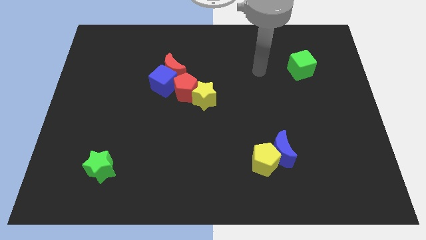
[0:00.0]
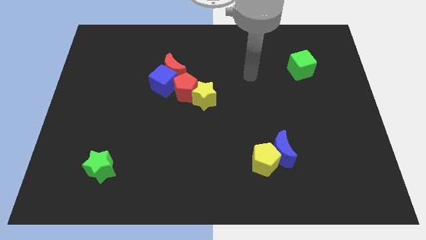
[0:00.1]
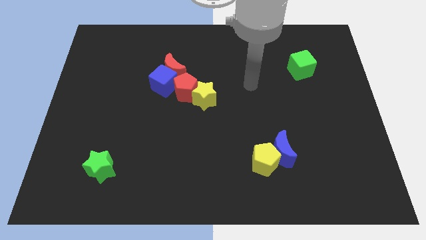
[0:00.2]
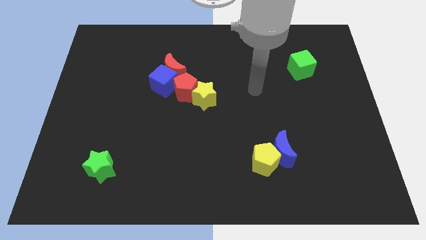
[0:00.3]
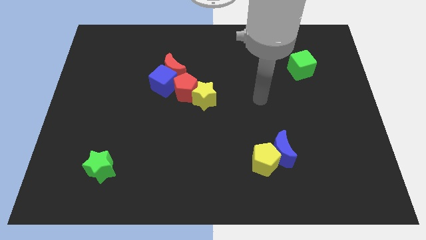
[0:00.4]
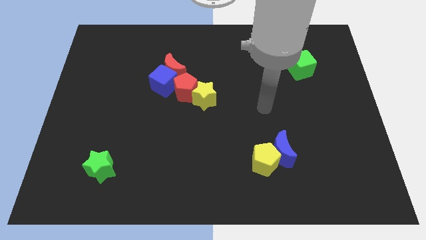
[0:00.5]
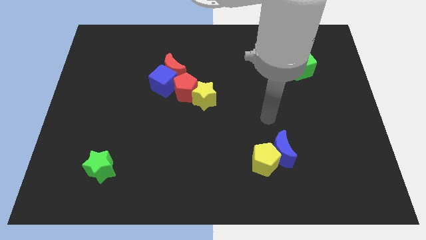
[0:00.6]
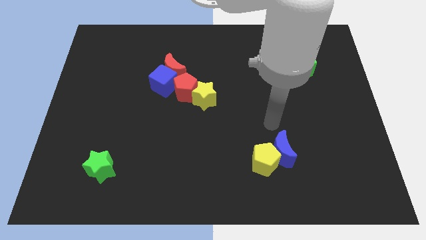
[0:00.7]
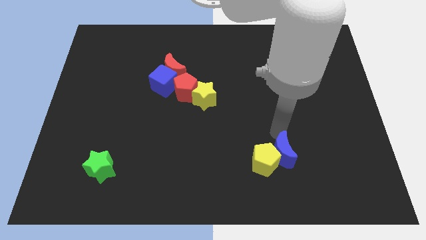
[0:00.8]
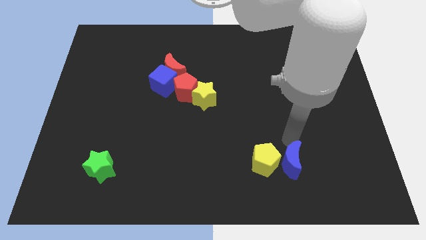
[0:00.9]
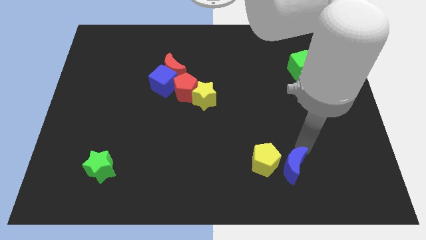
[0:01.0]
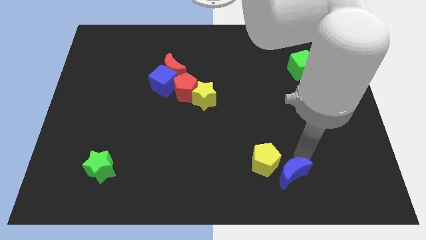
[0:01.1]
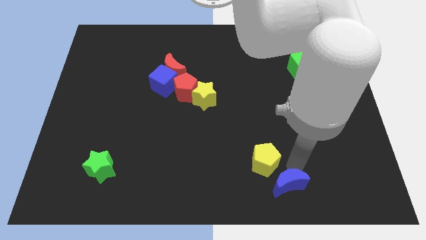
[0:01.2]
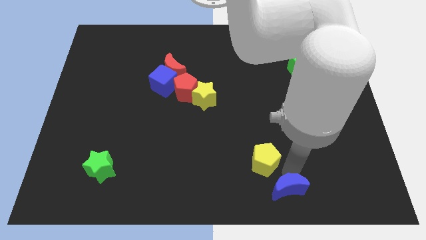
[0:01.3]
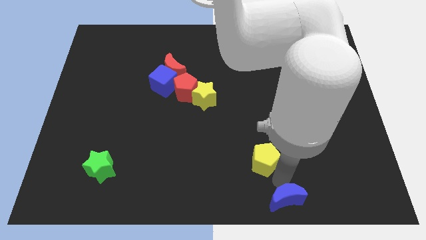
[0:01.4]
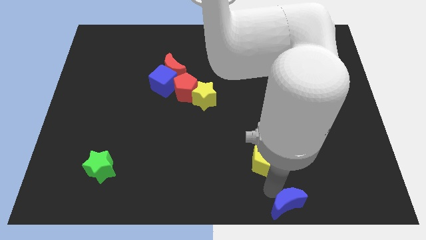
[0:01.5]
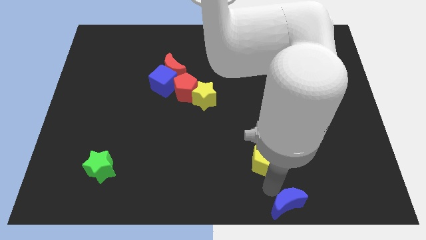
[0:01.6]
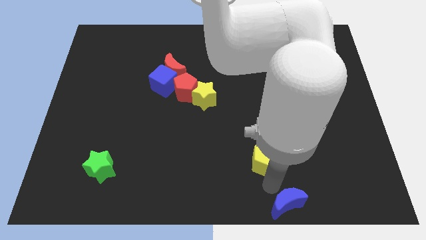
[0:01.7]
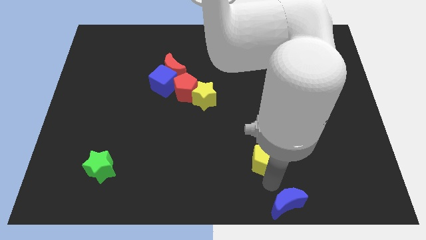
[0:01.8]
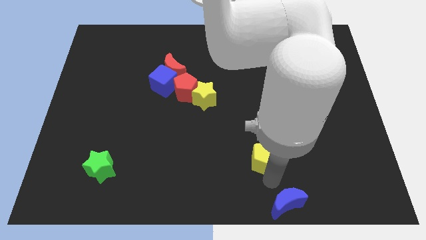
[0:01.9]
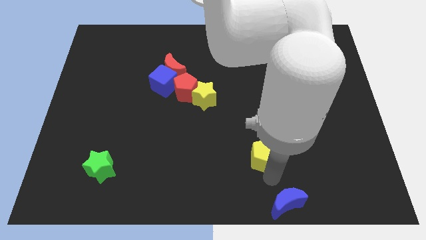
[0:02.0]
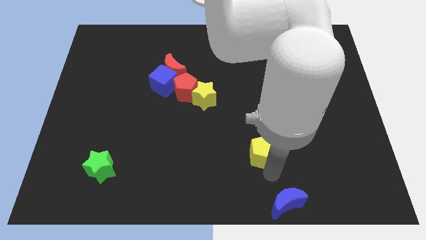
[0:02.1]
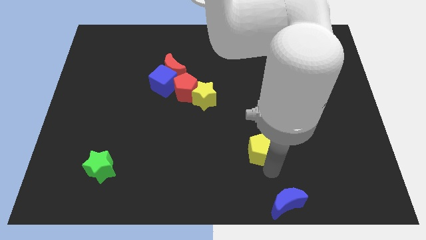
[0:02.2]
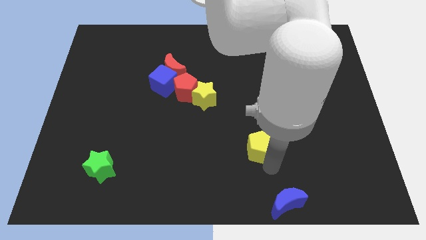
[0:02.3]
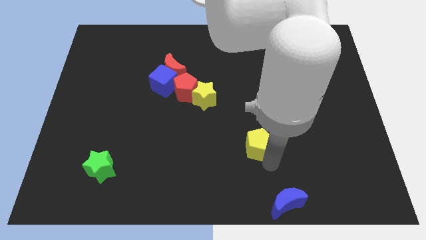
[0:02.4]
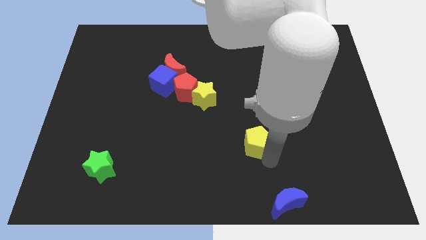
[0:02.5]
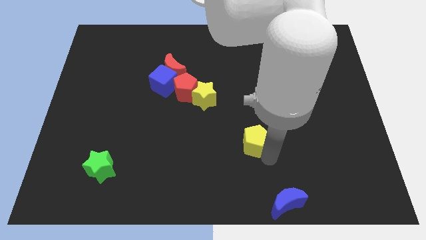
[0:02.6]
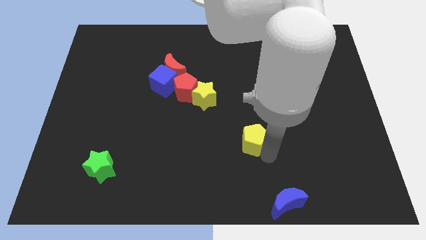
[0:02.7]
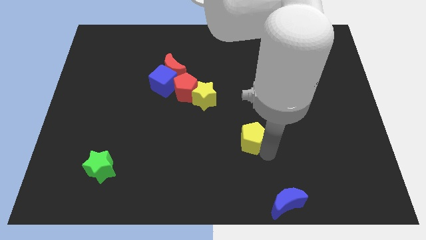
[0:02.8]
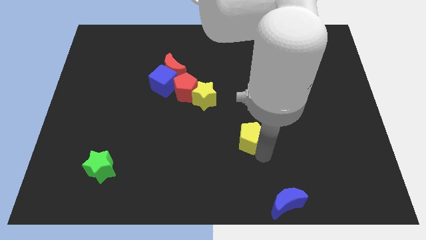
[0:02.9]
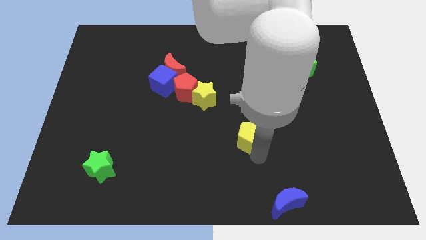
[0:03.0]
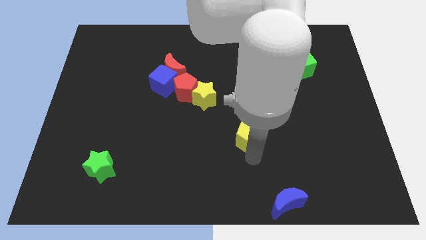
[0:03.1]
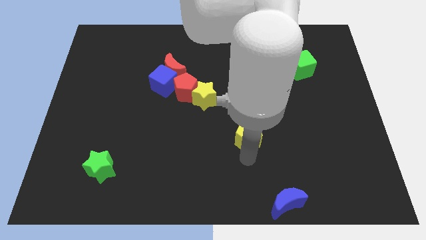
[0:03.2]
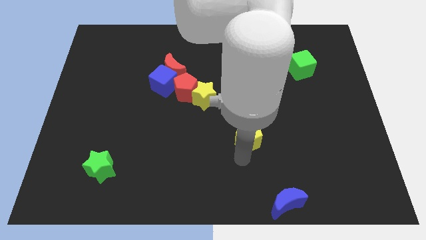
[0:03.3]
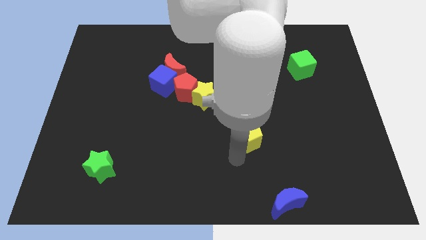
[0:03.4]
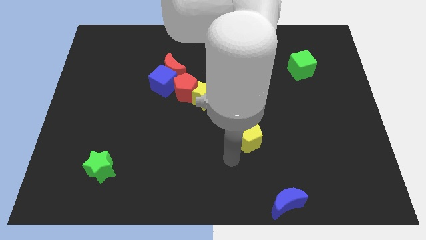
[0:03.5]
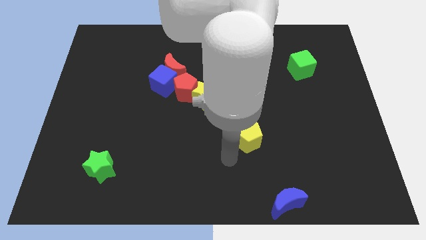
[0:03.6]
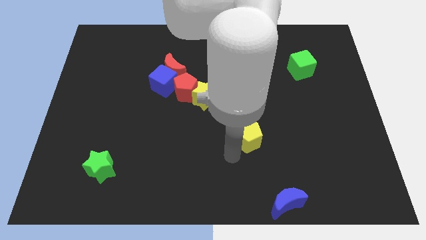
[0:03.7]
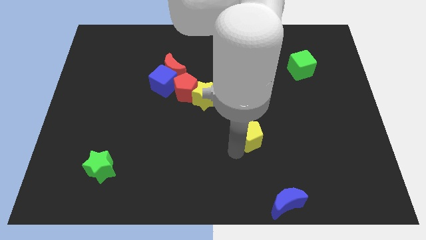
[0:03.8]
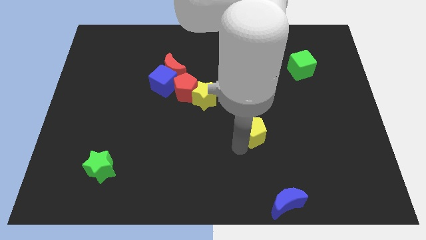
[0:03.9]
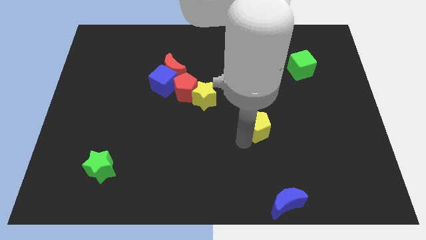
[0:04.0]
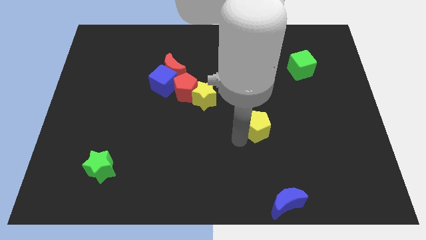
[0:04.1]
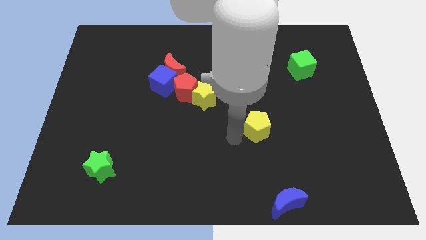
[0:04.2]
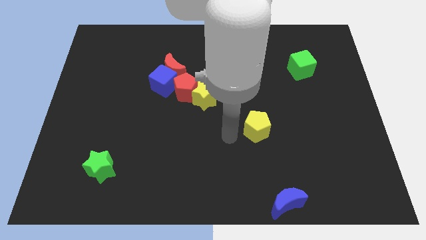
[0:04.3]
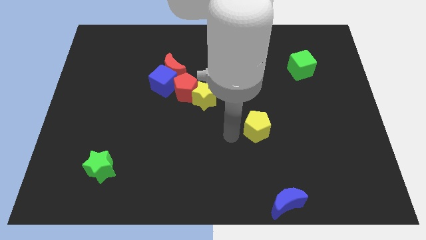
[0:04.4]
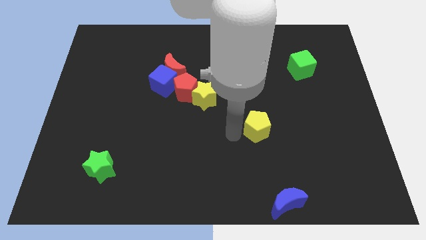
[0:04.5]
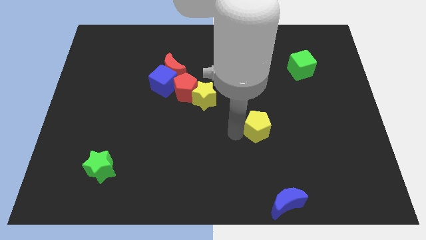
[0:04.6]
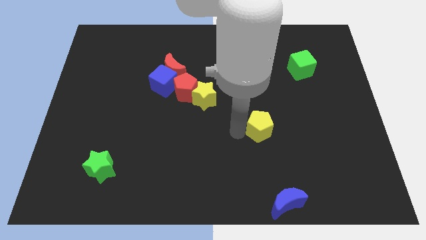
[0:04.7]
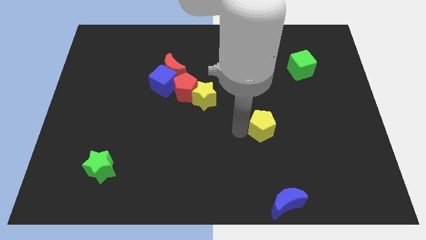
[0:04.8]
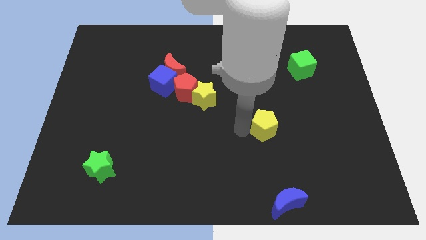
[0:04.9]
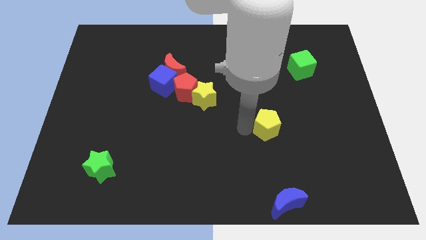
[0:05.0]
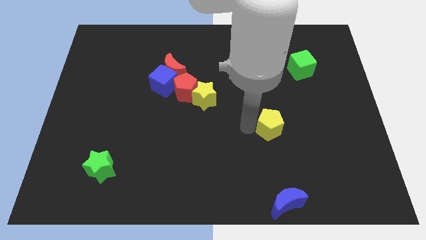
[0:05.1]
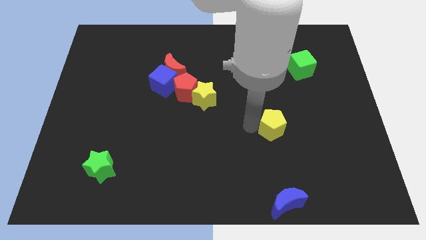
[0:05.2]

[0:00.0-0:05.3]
slightly slide the yellow pentagon upwards and to the right diagonally

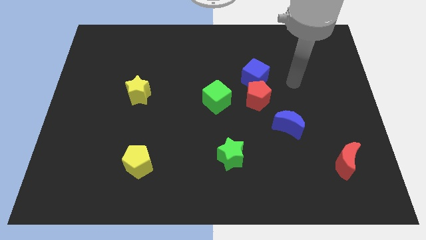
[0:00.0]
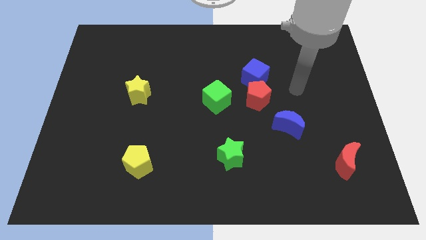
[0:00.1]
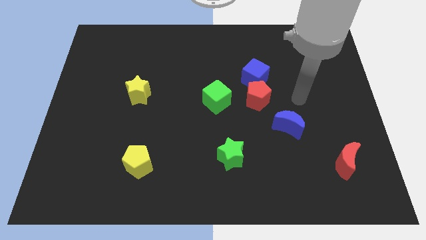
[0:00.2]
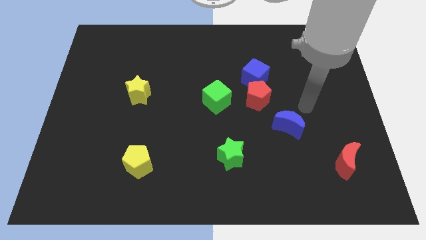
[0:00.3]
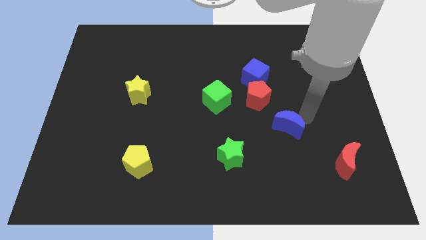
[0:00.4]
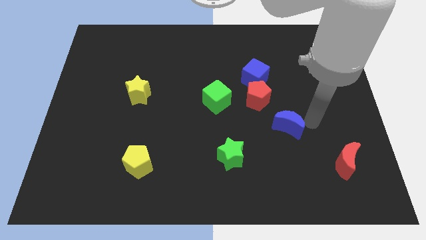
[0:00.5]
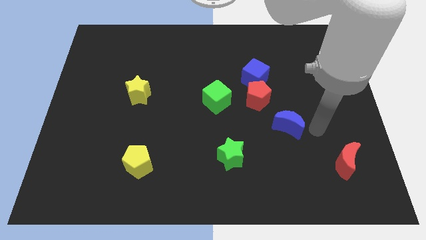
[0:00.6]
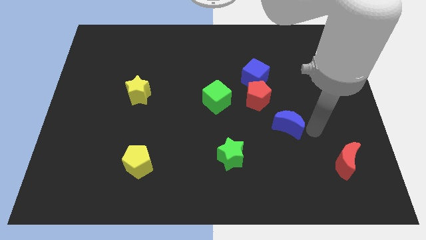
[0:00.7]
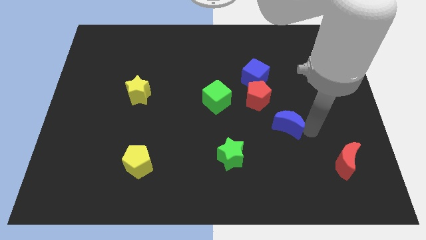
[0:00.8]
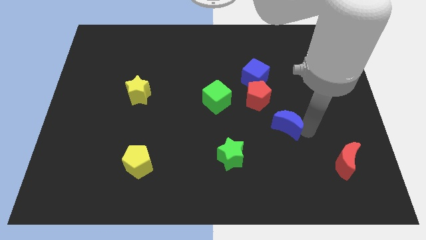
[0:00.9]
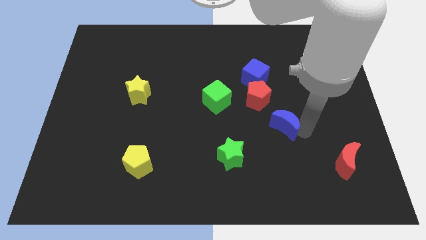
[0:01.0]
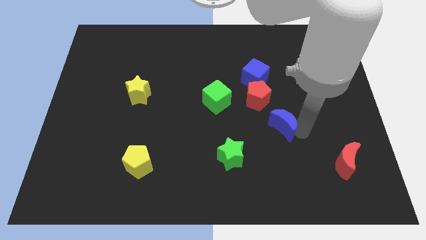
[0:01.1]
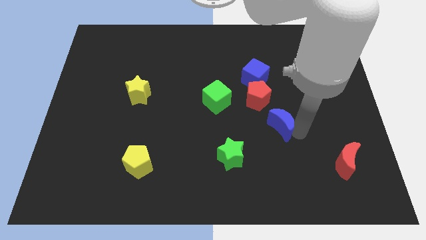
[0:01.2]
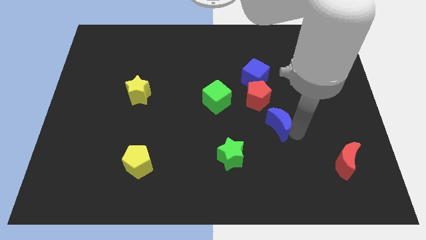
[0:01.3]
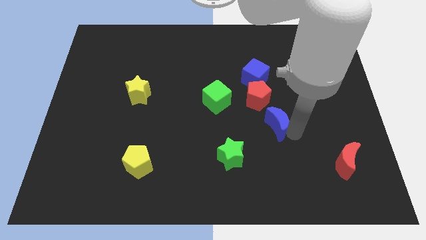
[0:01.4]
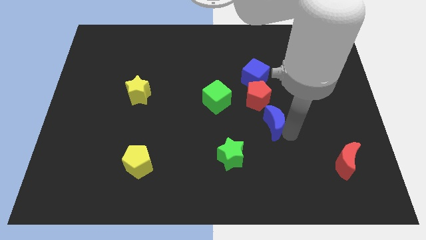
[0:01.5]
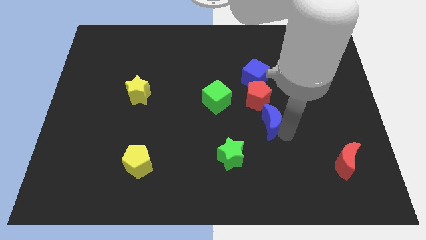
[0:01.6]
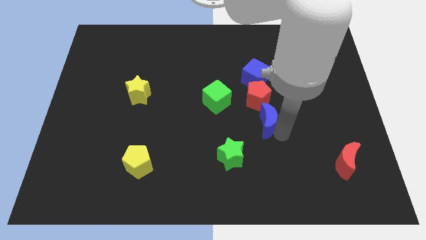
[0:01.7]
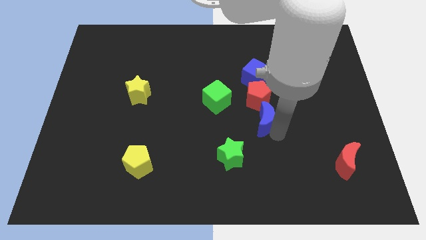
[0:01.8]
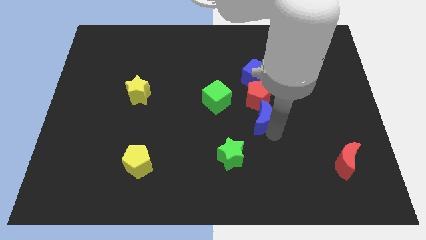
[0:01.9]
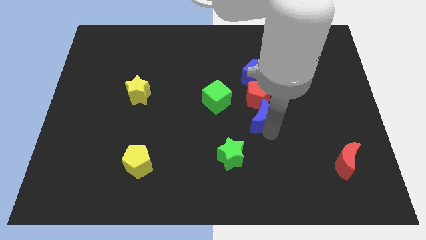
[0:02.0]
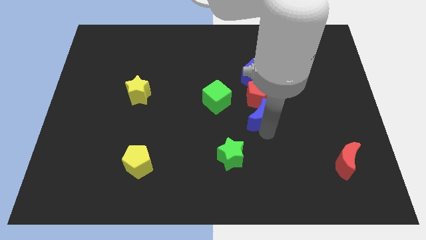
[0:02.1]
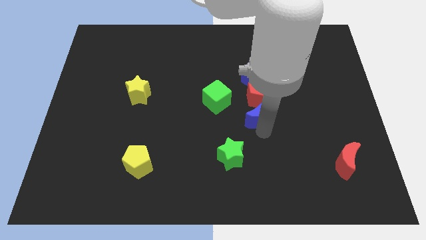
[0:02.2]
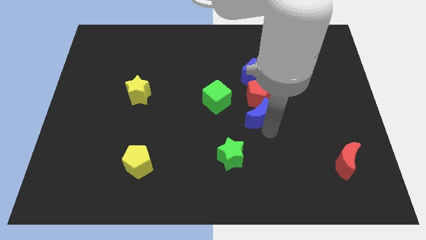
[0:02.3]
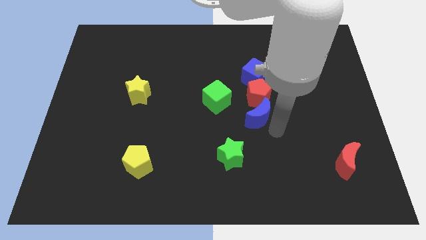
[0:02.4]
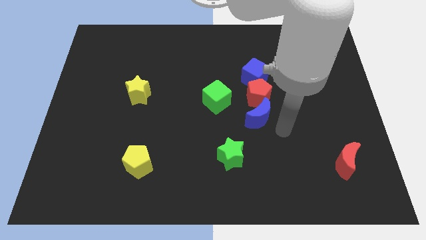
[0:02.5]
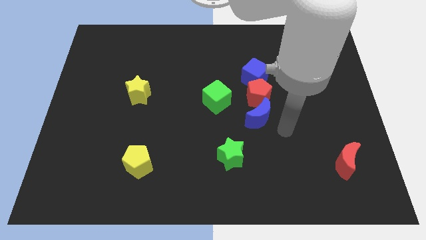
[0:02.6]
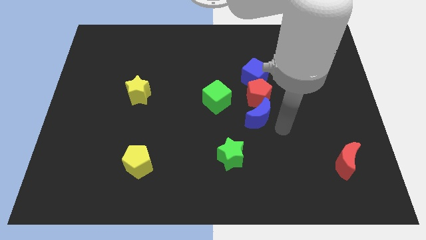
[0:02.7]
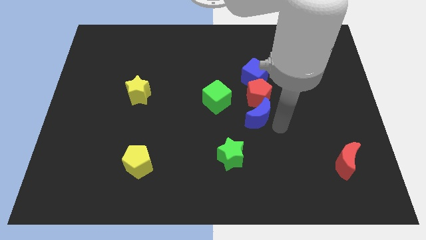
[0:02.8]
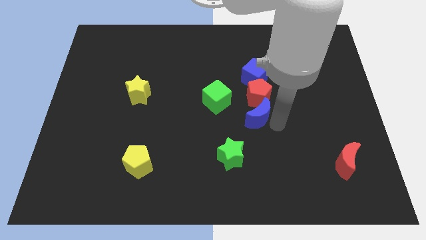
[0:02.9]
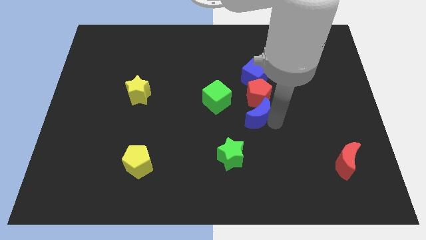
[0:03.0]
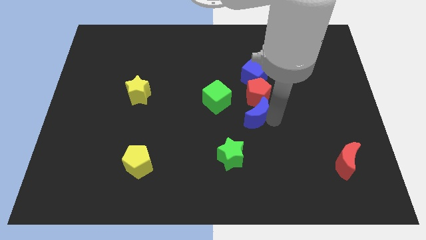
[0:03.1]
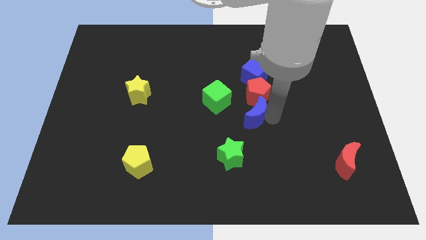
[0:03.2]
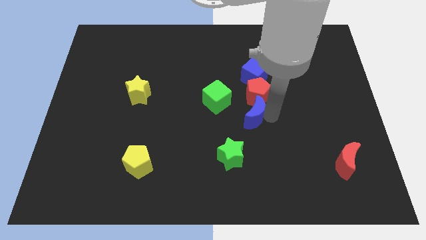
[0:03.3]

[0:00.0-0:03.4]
slide the blue moon slightly diagonally up and to the left
